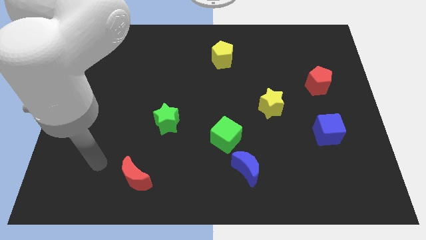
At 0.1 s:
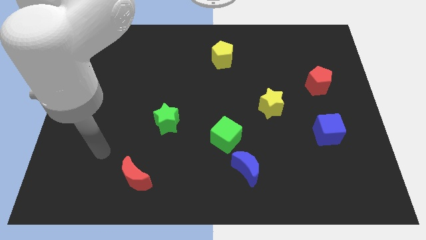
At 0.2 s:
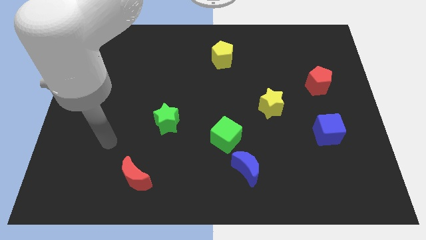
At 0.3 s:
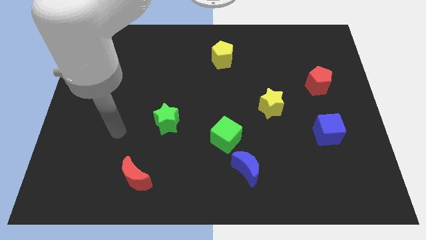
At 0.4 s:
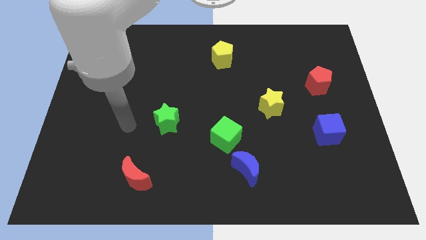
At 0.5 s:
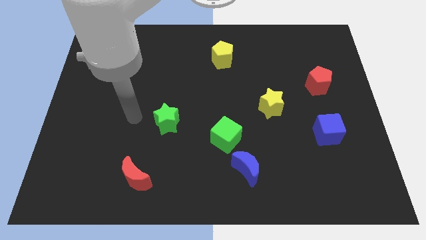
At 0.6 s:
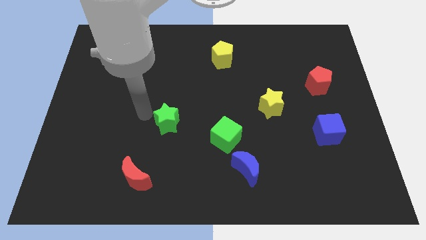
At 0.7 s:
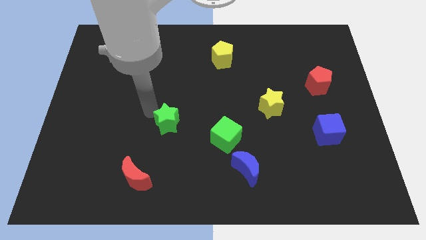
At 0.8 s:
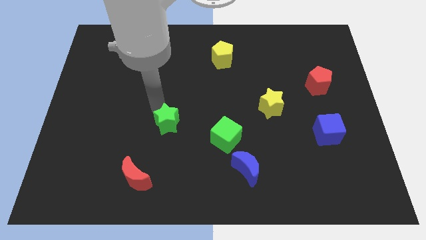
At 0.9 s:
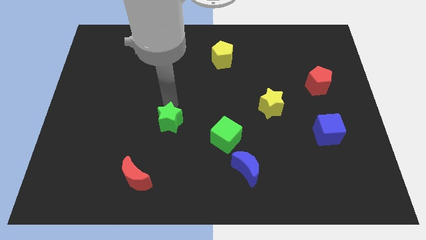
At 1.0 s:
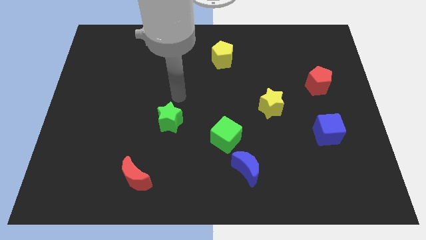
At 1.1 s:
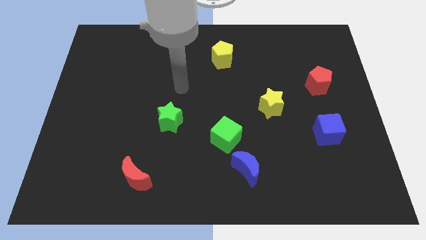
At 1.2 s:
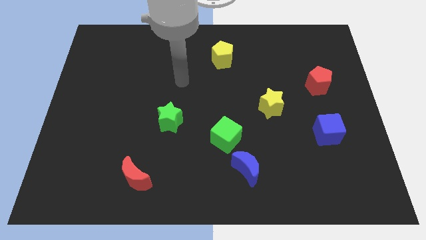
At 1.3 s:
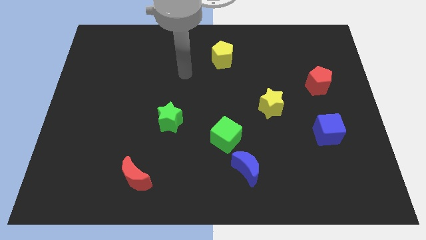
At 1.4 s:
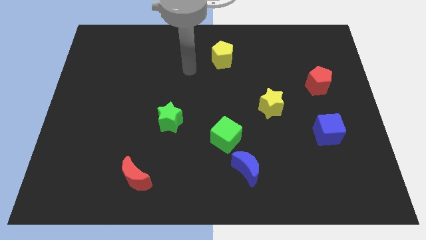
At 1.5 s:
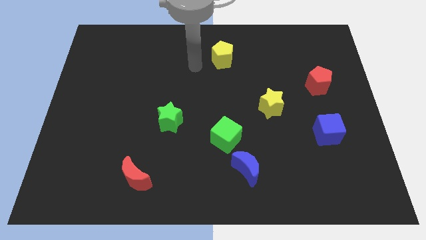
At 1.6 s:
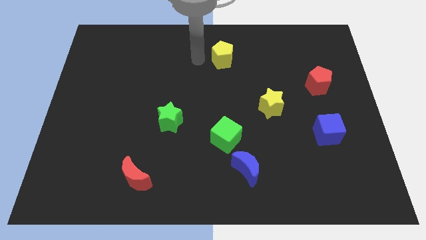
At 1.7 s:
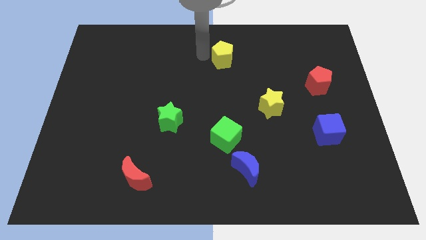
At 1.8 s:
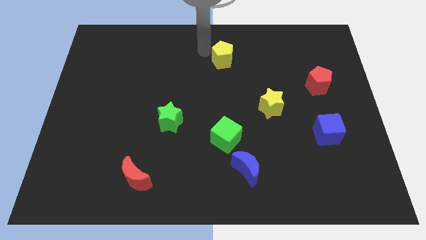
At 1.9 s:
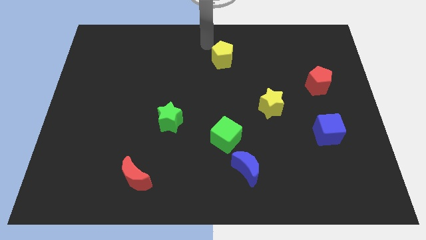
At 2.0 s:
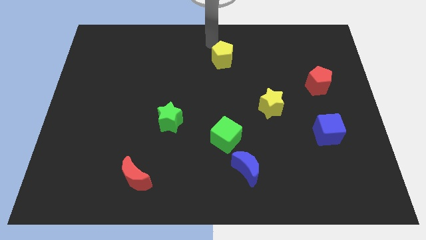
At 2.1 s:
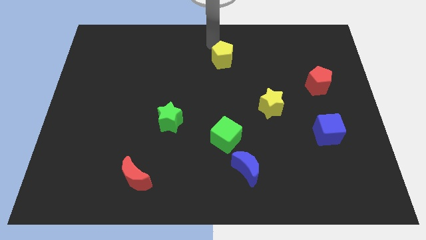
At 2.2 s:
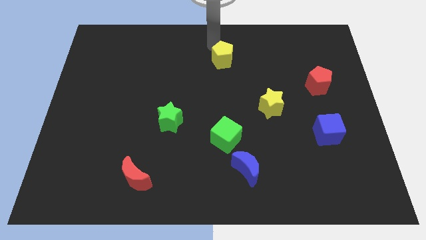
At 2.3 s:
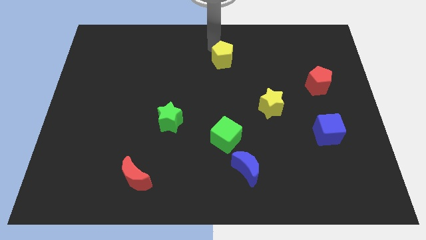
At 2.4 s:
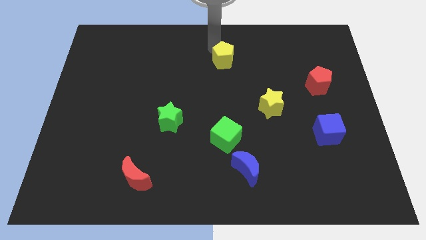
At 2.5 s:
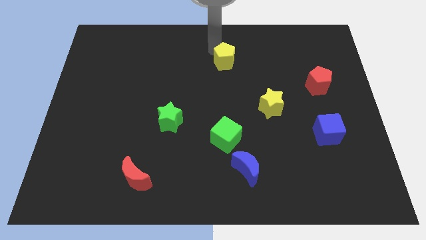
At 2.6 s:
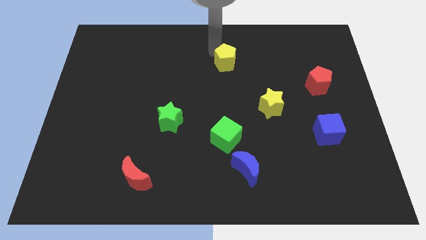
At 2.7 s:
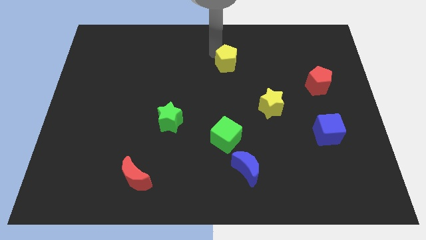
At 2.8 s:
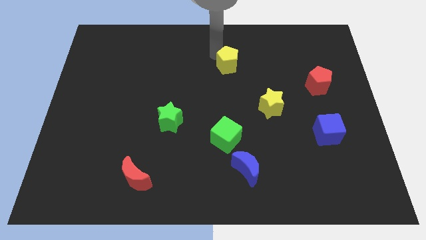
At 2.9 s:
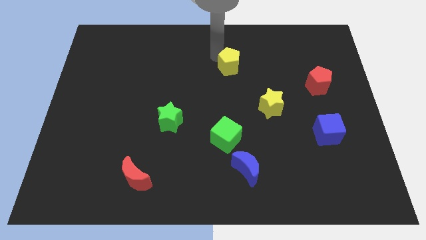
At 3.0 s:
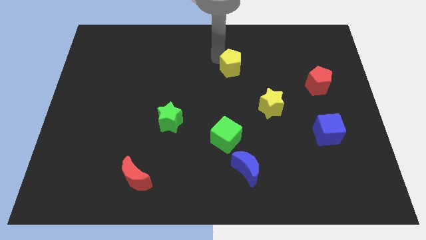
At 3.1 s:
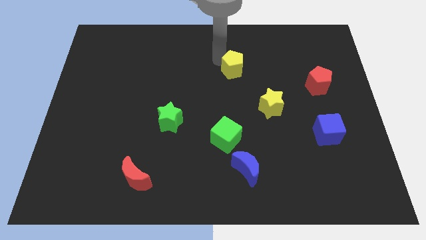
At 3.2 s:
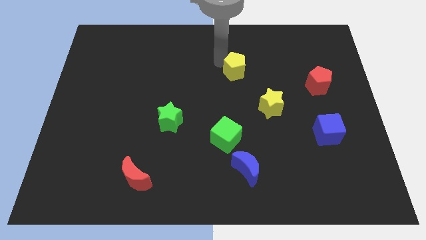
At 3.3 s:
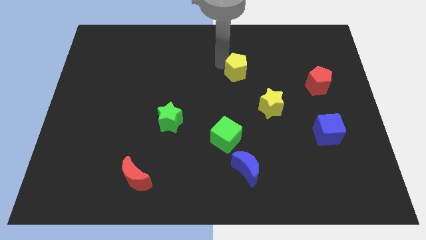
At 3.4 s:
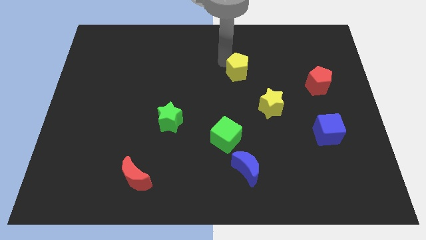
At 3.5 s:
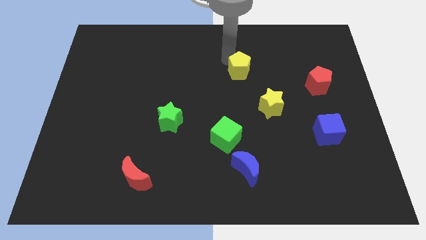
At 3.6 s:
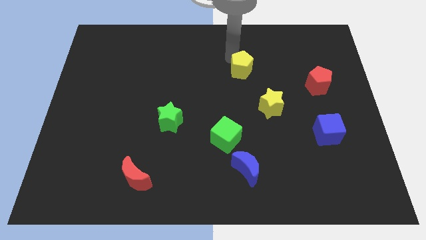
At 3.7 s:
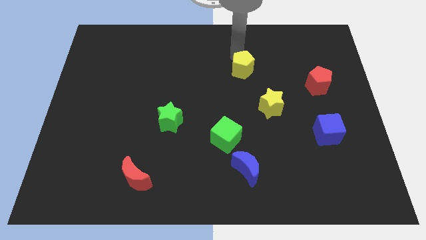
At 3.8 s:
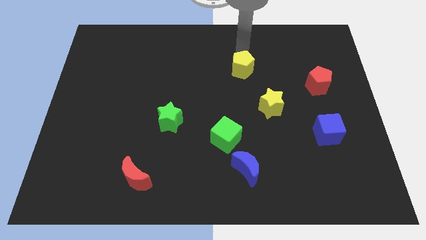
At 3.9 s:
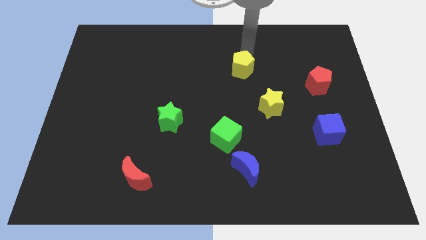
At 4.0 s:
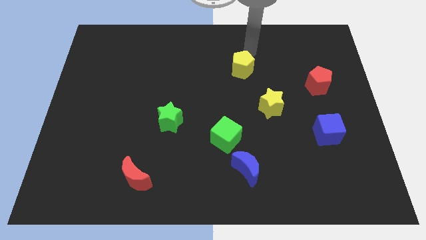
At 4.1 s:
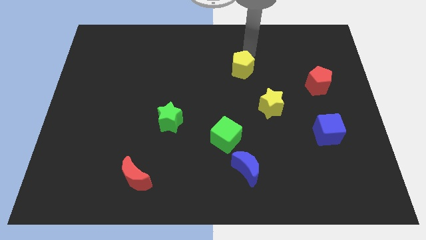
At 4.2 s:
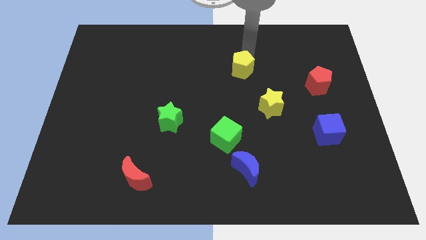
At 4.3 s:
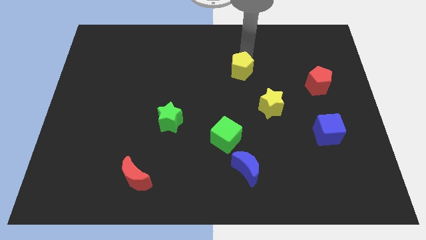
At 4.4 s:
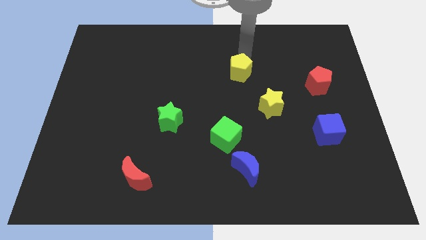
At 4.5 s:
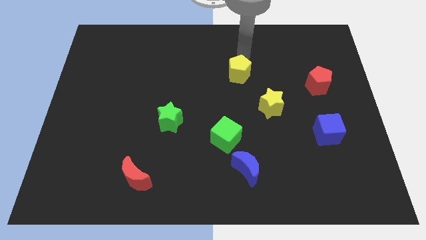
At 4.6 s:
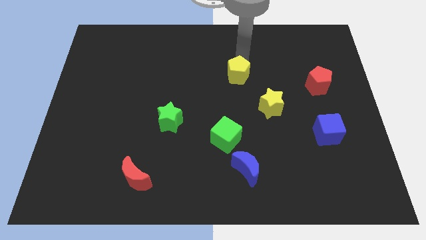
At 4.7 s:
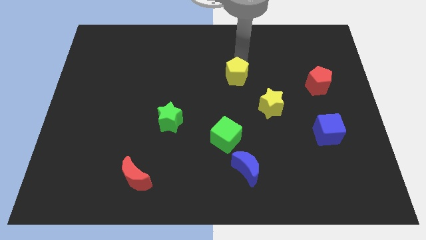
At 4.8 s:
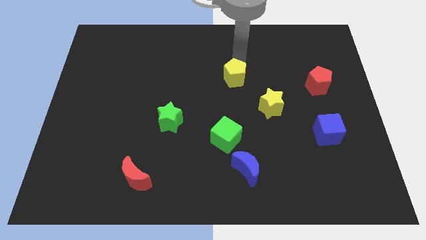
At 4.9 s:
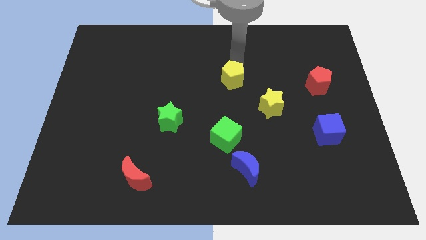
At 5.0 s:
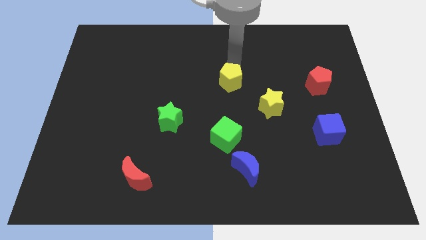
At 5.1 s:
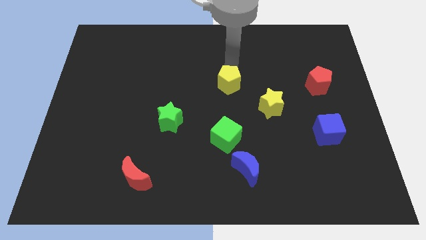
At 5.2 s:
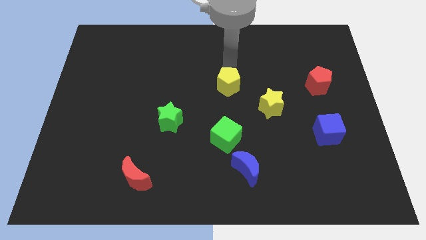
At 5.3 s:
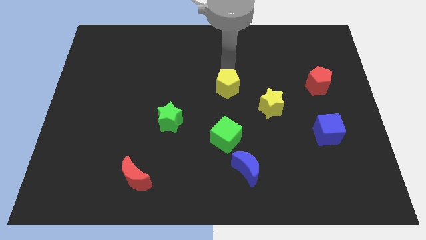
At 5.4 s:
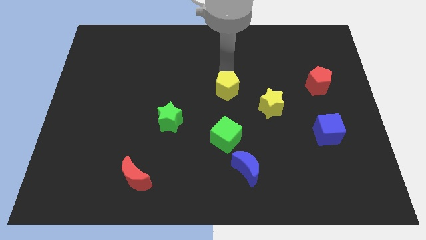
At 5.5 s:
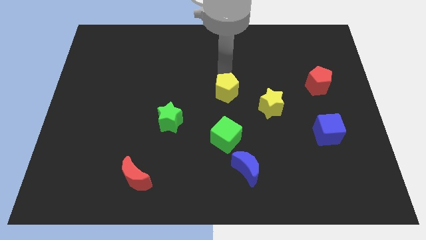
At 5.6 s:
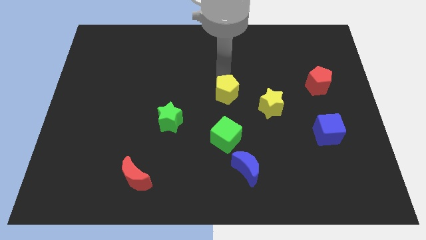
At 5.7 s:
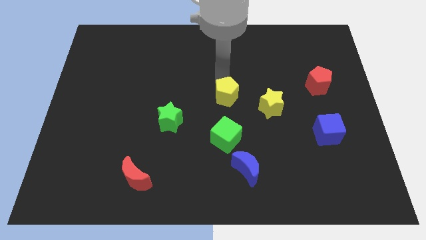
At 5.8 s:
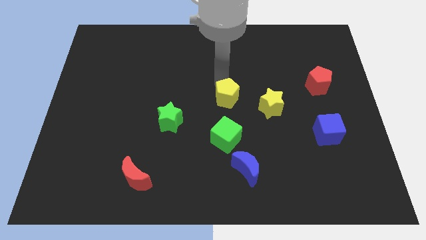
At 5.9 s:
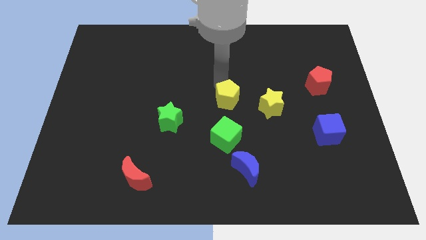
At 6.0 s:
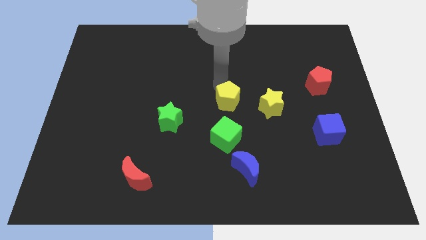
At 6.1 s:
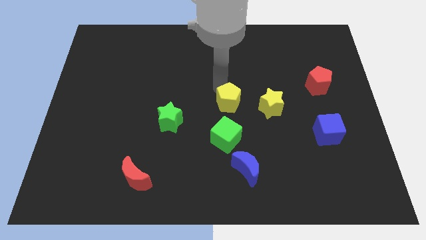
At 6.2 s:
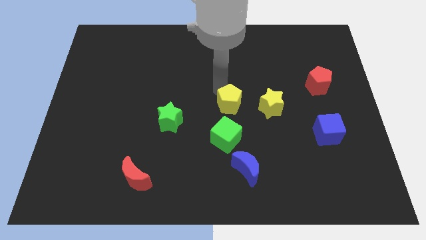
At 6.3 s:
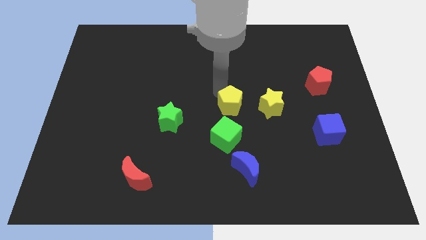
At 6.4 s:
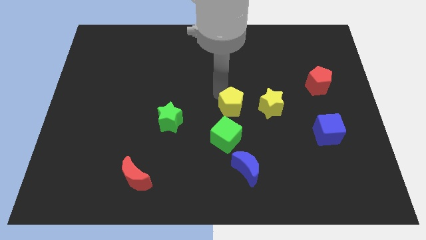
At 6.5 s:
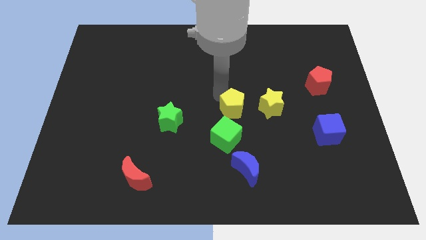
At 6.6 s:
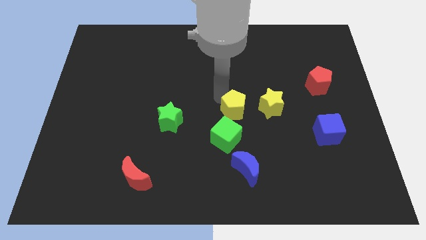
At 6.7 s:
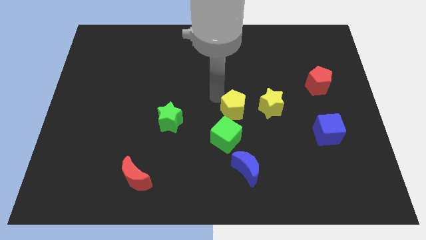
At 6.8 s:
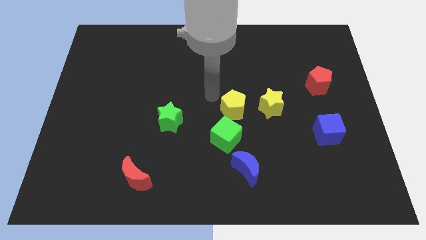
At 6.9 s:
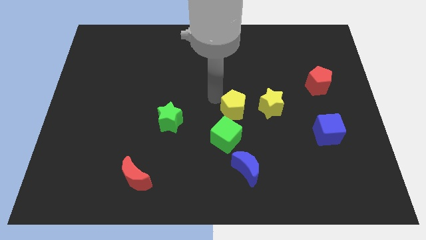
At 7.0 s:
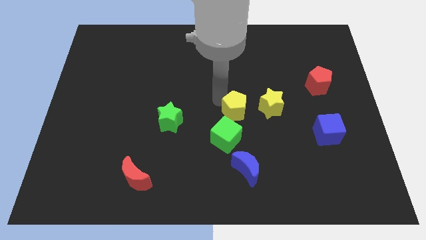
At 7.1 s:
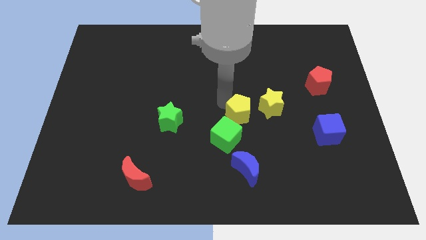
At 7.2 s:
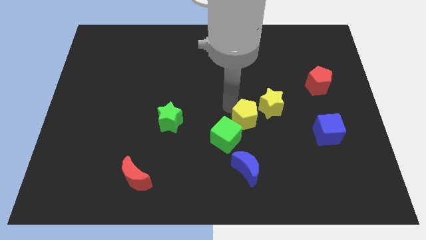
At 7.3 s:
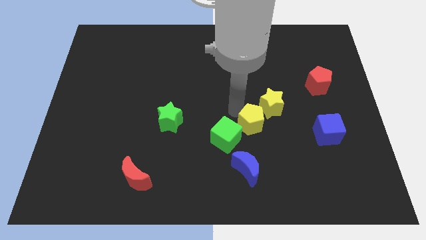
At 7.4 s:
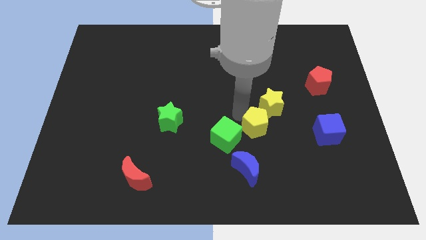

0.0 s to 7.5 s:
move the yellow pentagon left of the blue cube
